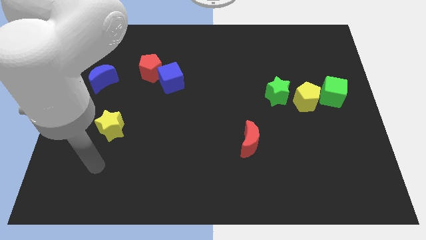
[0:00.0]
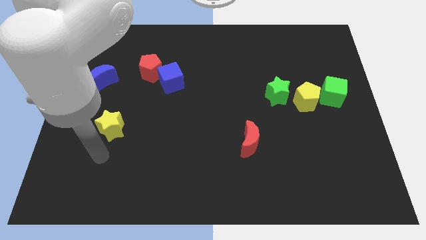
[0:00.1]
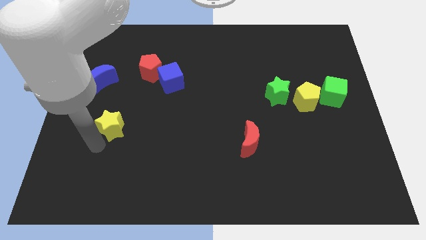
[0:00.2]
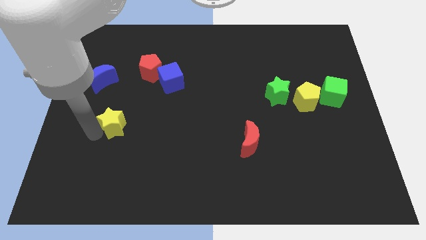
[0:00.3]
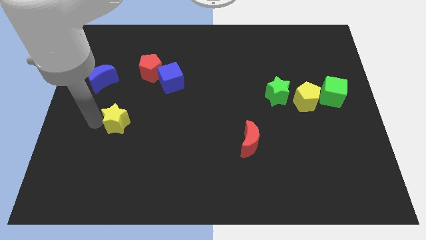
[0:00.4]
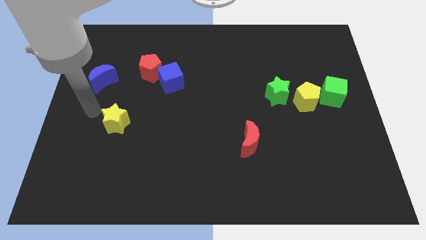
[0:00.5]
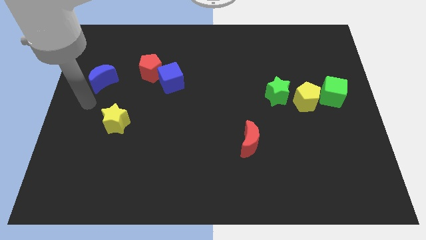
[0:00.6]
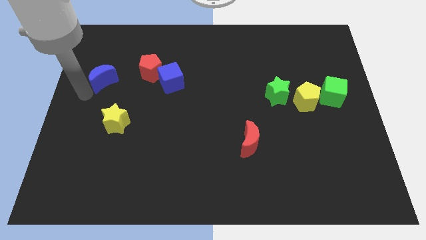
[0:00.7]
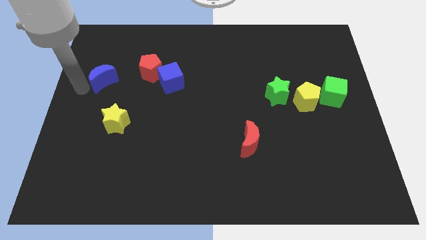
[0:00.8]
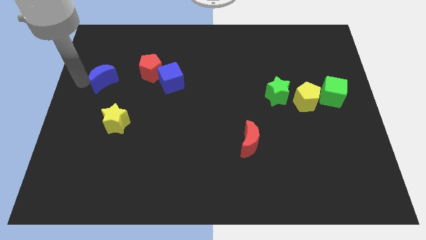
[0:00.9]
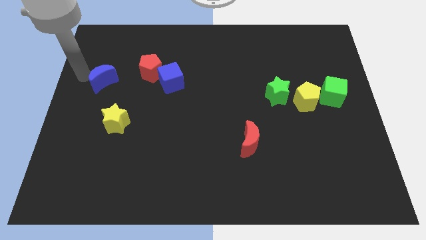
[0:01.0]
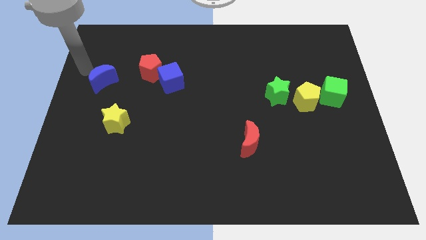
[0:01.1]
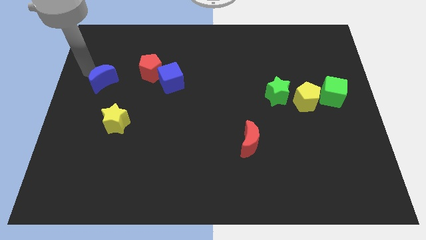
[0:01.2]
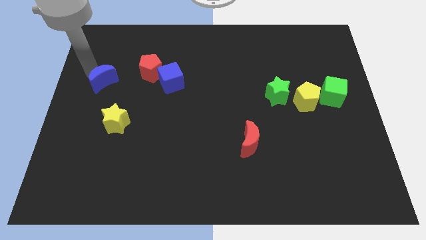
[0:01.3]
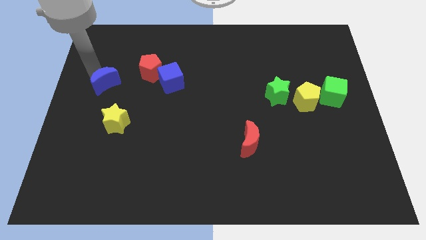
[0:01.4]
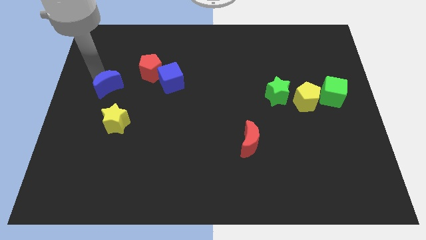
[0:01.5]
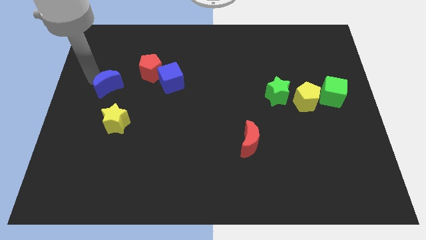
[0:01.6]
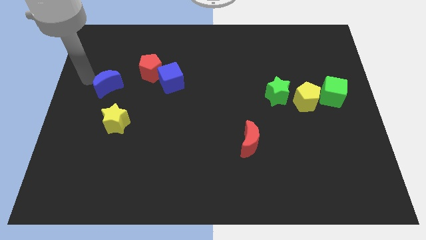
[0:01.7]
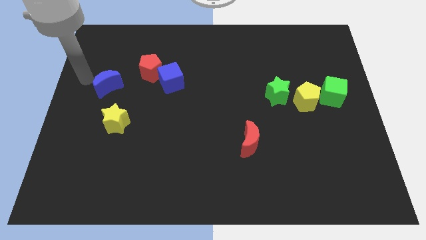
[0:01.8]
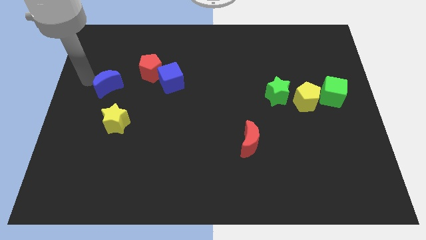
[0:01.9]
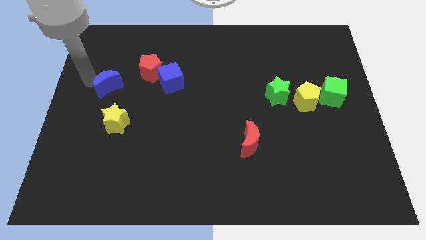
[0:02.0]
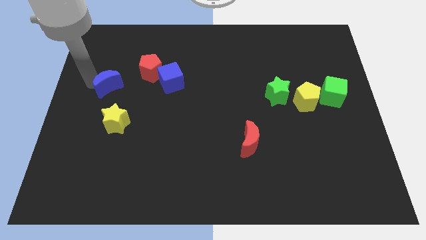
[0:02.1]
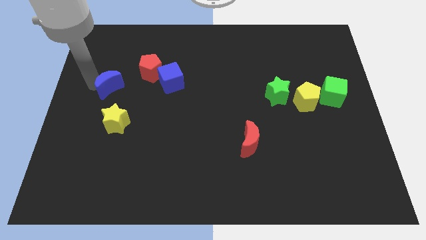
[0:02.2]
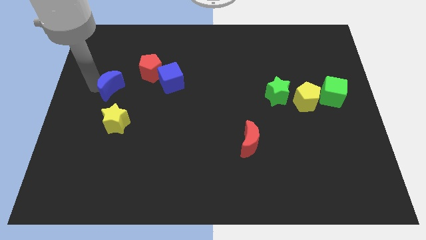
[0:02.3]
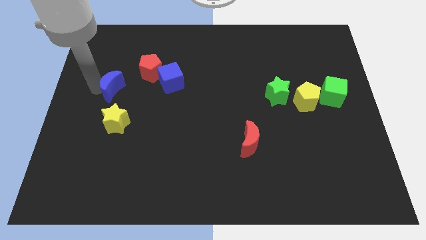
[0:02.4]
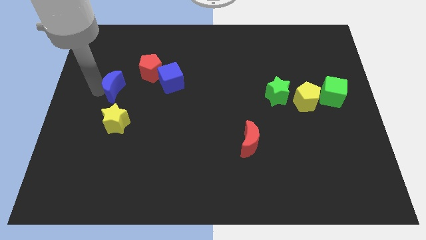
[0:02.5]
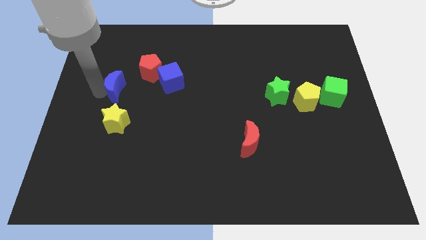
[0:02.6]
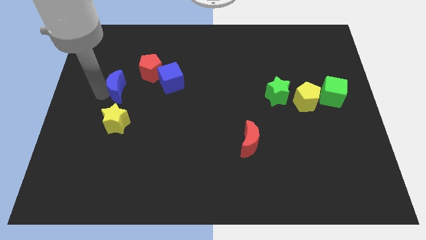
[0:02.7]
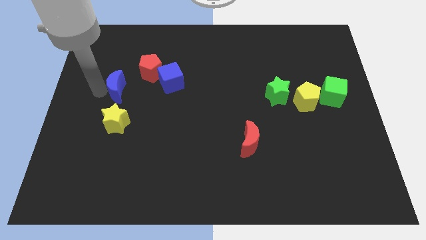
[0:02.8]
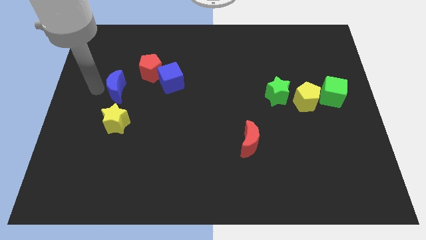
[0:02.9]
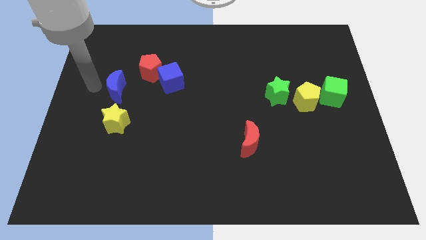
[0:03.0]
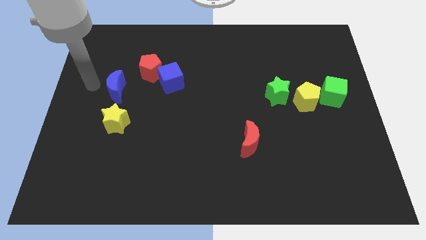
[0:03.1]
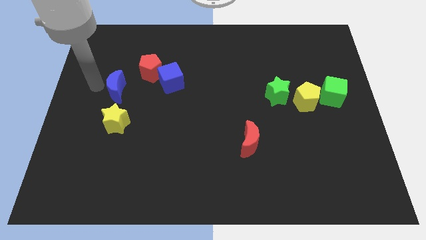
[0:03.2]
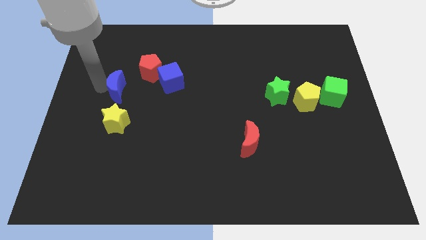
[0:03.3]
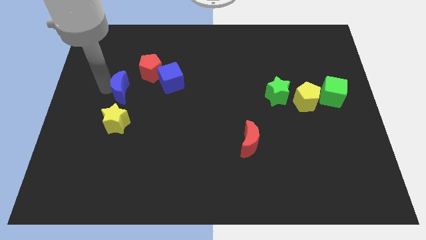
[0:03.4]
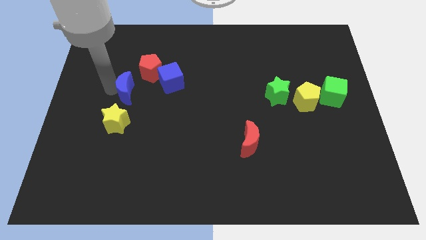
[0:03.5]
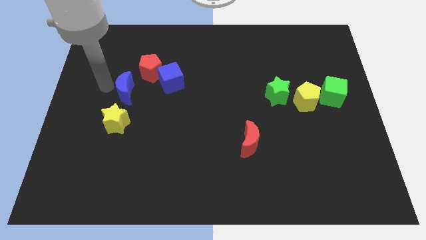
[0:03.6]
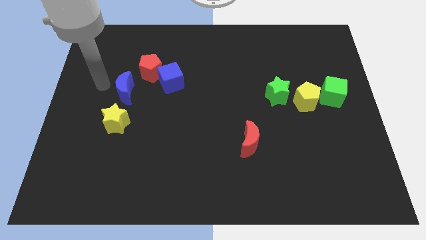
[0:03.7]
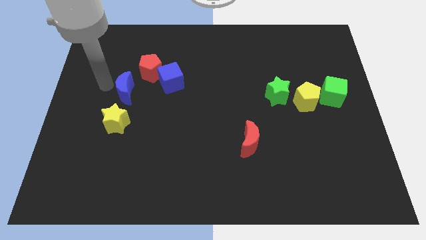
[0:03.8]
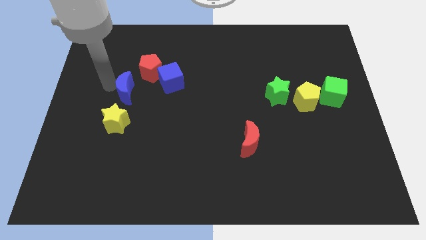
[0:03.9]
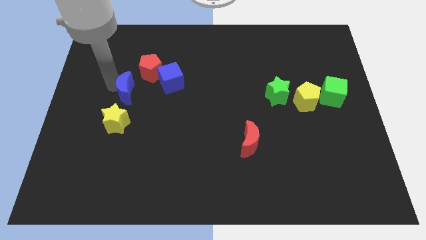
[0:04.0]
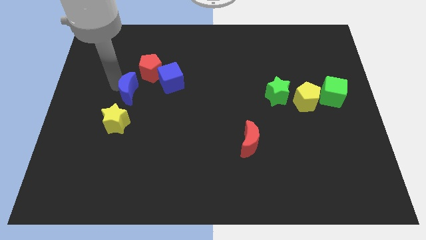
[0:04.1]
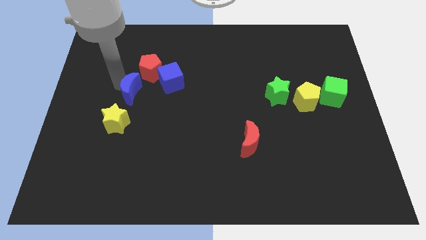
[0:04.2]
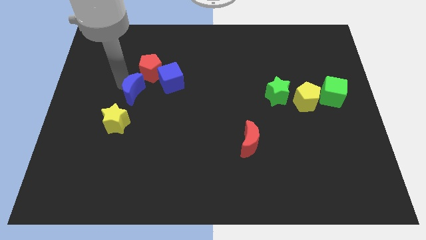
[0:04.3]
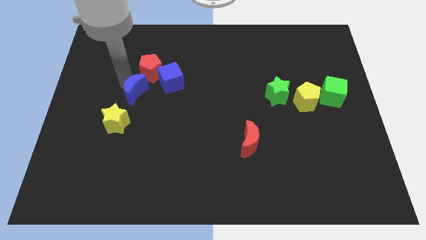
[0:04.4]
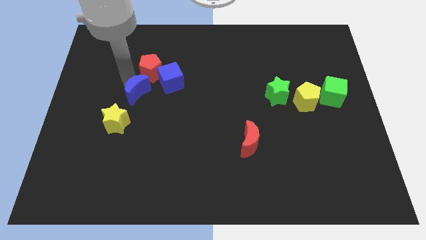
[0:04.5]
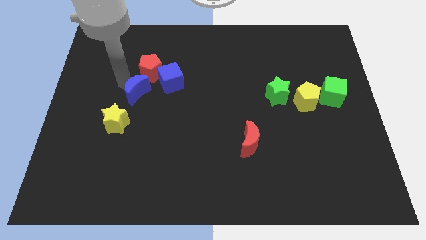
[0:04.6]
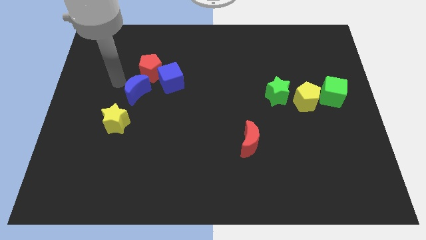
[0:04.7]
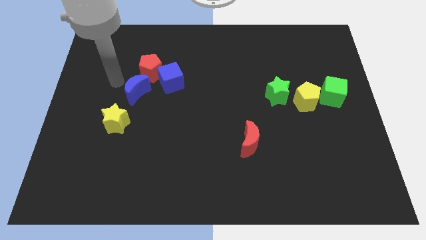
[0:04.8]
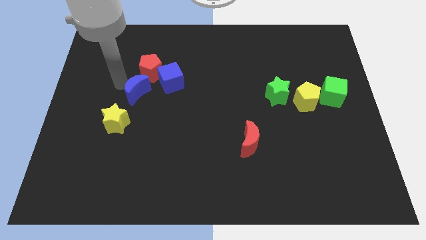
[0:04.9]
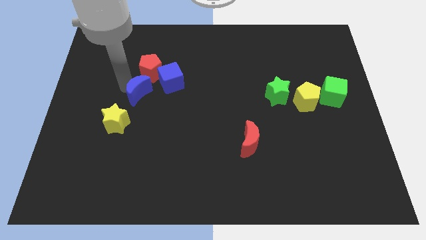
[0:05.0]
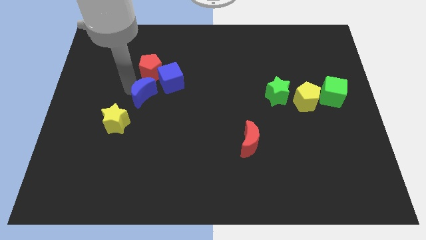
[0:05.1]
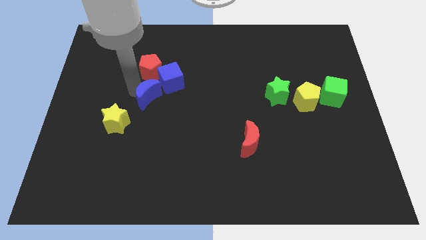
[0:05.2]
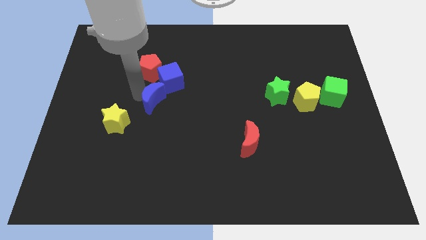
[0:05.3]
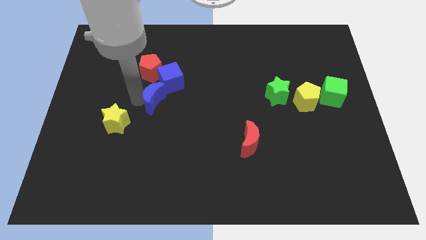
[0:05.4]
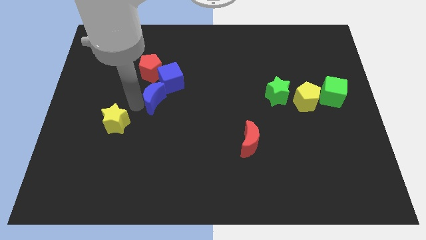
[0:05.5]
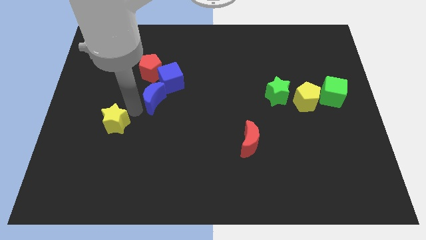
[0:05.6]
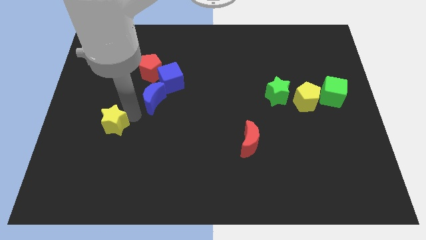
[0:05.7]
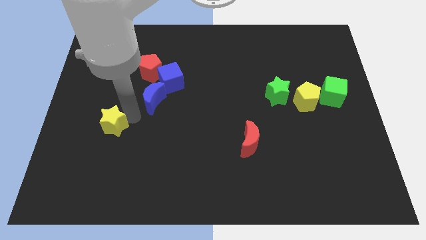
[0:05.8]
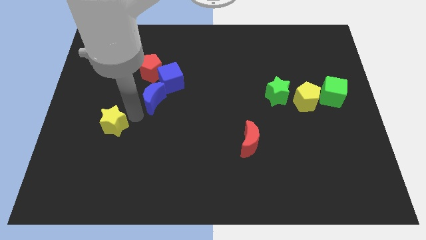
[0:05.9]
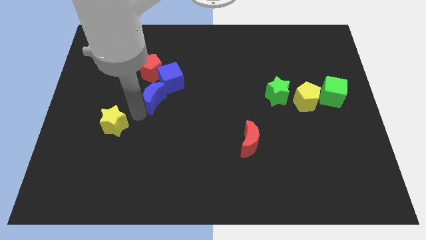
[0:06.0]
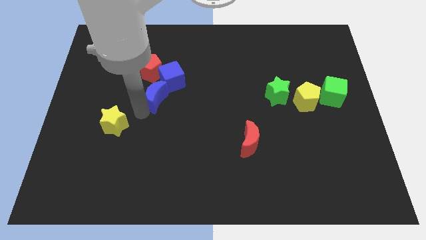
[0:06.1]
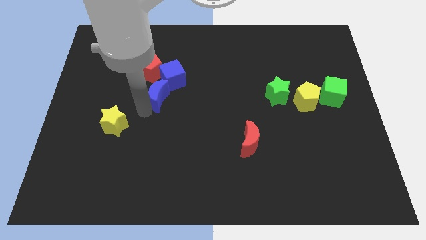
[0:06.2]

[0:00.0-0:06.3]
put the blue moon diagonally down and to the right of the red pentagon

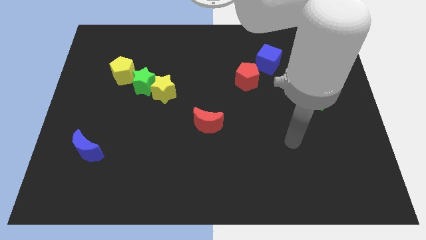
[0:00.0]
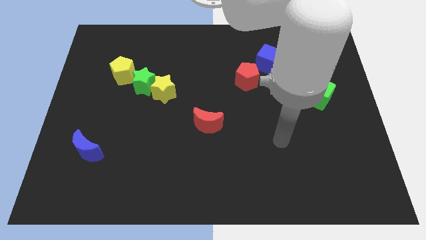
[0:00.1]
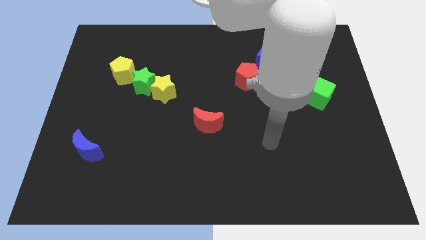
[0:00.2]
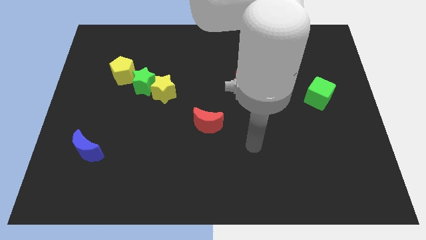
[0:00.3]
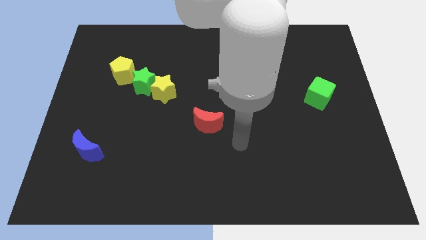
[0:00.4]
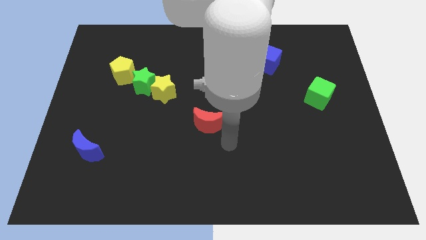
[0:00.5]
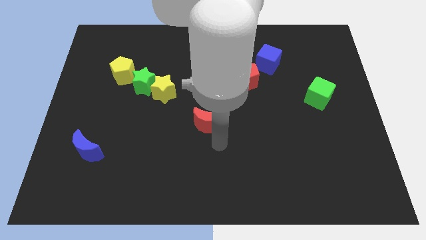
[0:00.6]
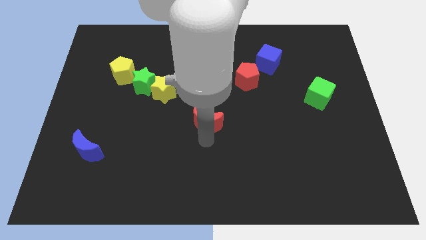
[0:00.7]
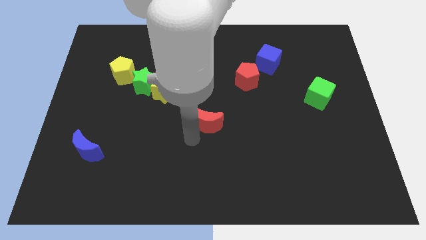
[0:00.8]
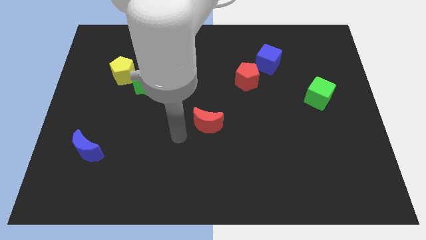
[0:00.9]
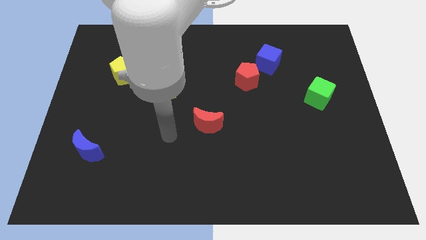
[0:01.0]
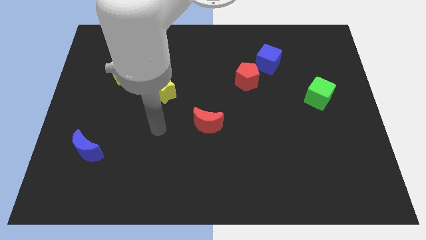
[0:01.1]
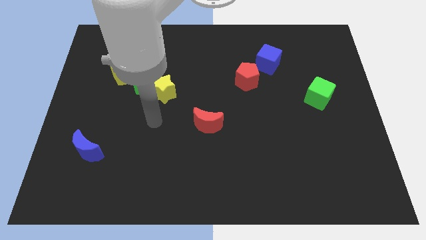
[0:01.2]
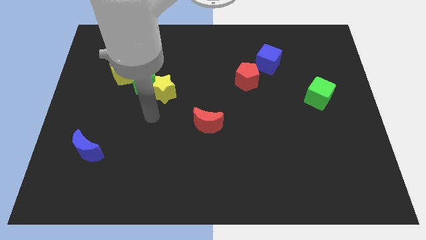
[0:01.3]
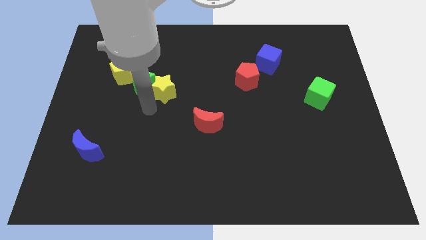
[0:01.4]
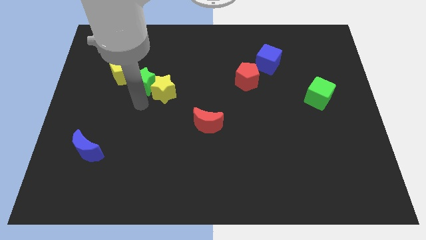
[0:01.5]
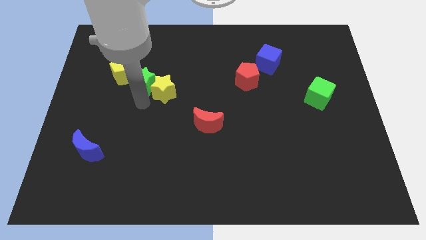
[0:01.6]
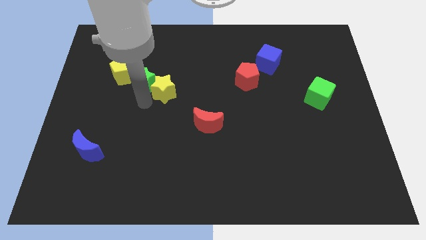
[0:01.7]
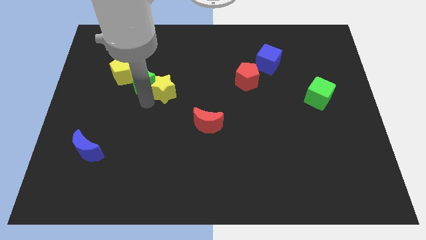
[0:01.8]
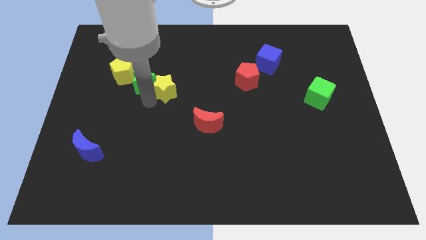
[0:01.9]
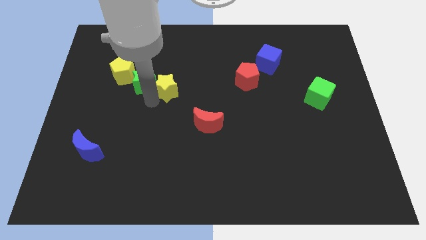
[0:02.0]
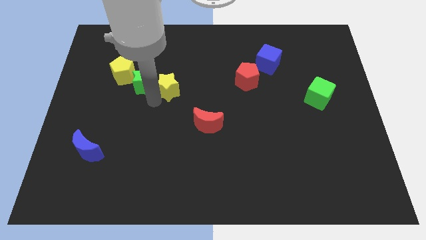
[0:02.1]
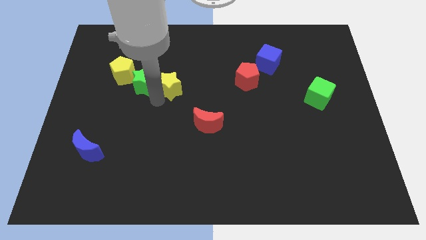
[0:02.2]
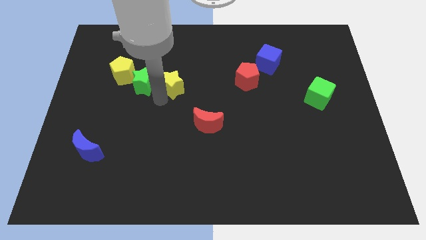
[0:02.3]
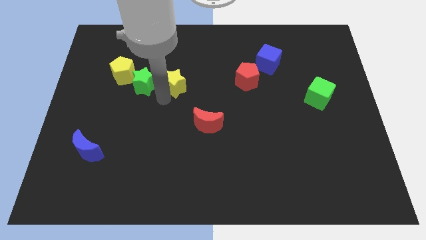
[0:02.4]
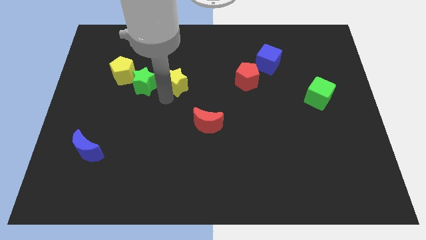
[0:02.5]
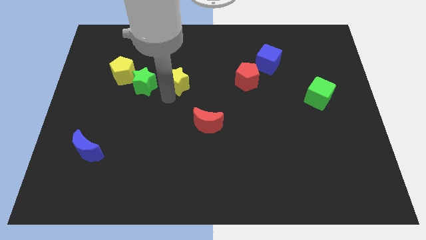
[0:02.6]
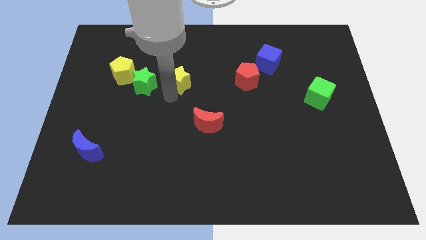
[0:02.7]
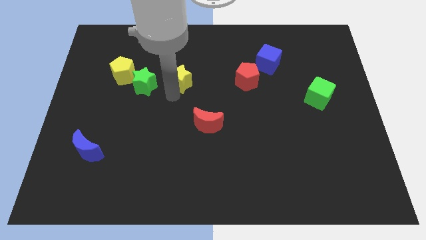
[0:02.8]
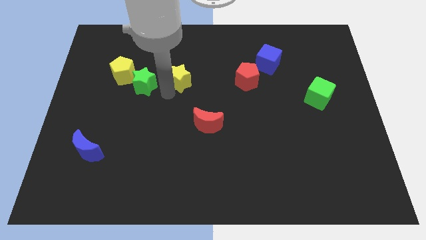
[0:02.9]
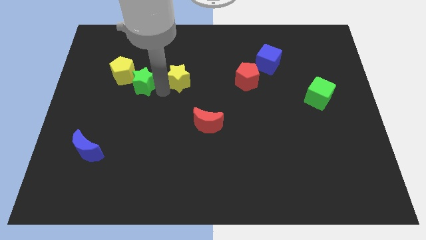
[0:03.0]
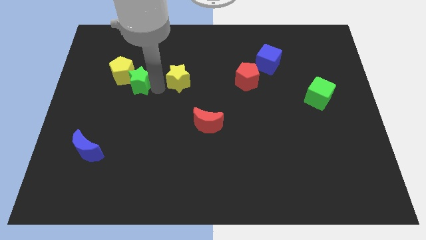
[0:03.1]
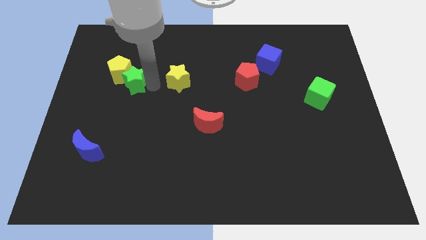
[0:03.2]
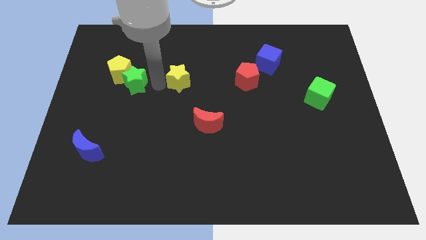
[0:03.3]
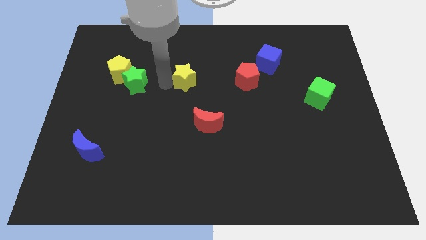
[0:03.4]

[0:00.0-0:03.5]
put the yellow star left of the red pentagon
